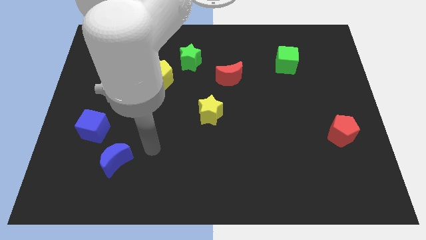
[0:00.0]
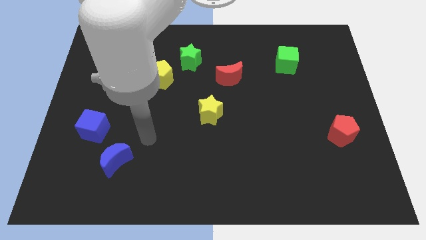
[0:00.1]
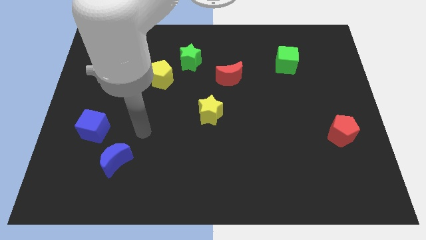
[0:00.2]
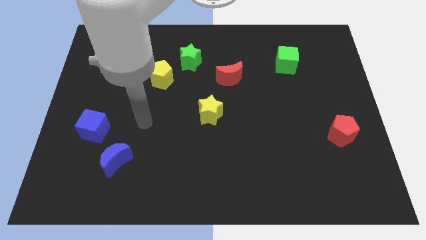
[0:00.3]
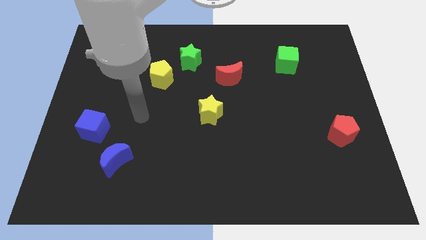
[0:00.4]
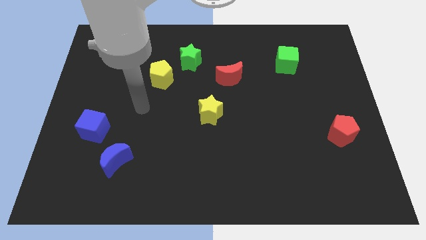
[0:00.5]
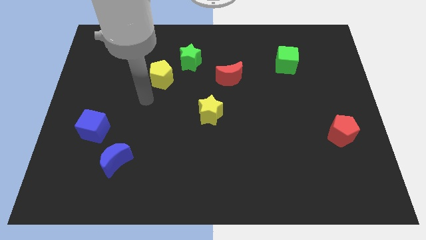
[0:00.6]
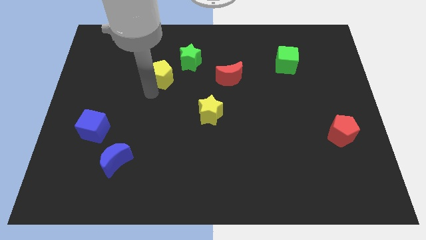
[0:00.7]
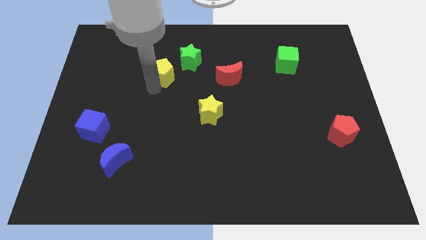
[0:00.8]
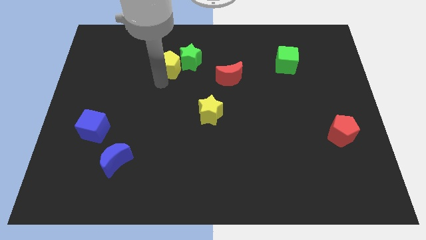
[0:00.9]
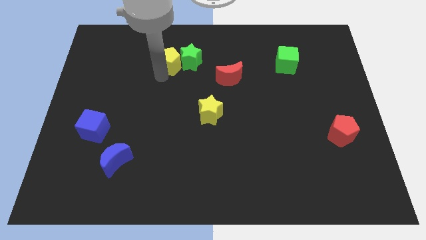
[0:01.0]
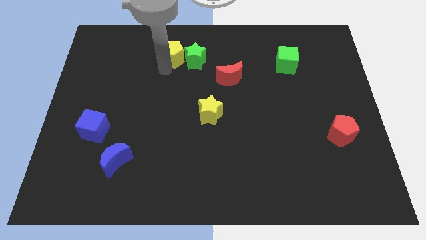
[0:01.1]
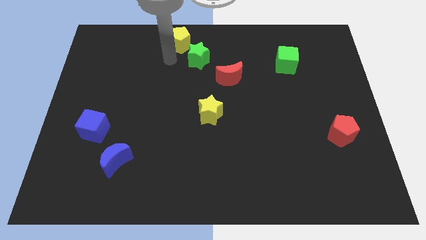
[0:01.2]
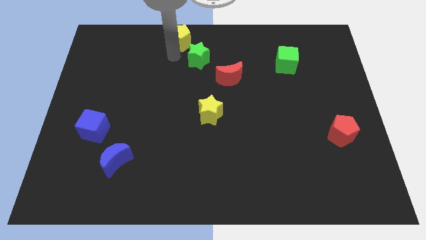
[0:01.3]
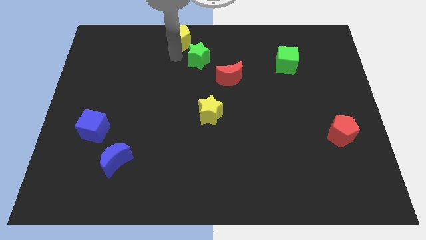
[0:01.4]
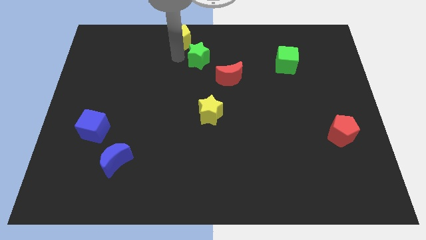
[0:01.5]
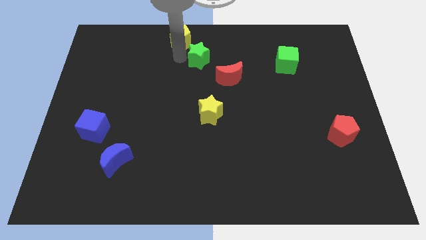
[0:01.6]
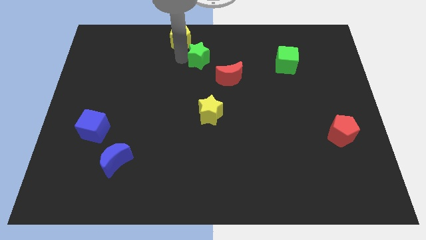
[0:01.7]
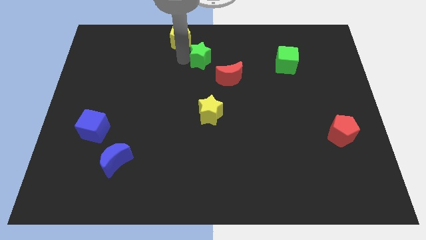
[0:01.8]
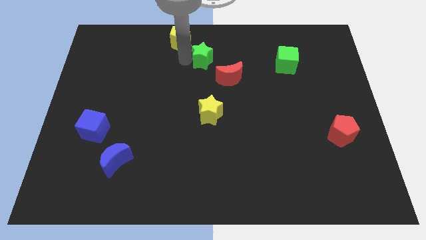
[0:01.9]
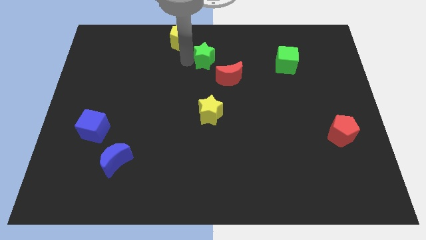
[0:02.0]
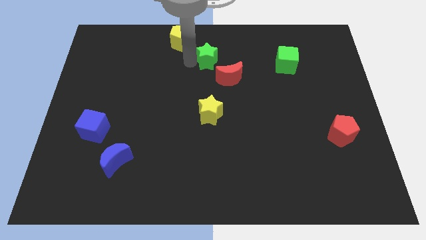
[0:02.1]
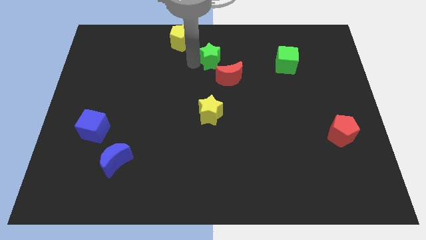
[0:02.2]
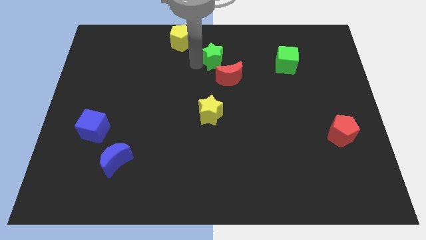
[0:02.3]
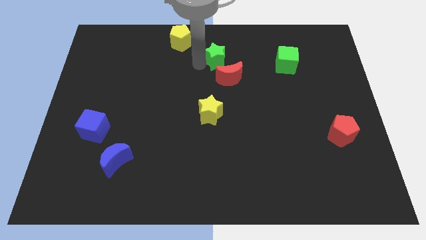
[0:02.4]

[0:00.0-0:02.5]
slide the green star right a little

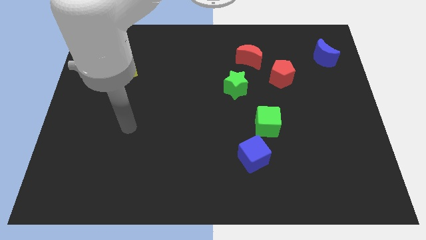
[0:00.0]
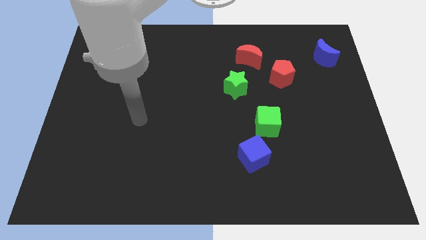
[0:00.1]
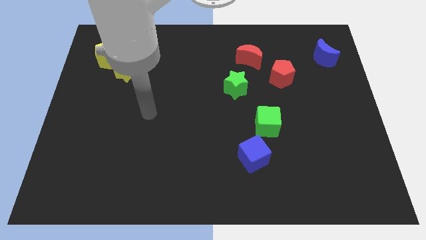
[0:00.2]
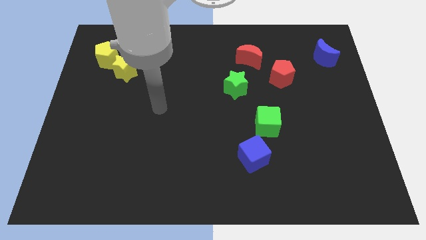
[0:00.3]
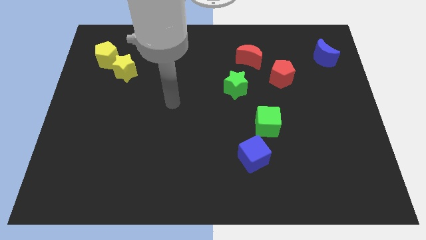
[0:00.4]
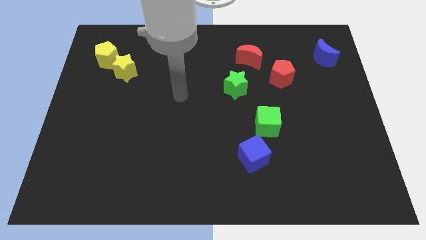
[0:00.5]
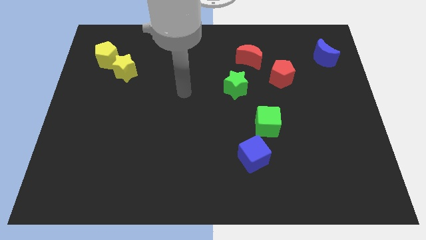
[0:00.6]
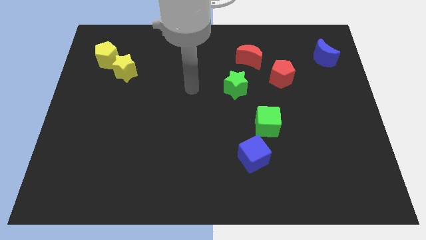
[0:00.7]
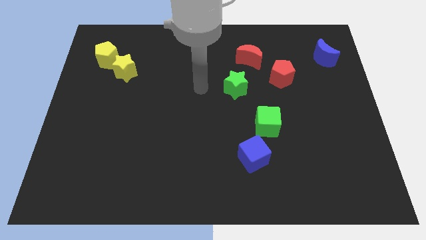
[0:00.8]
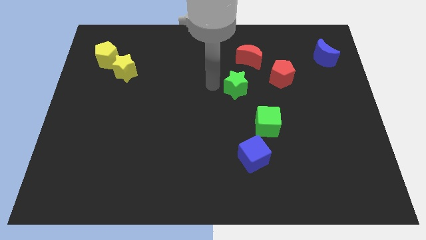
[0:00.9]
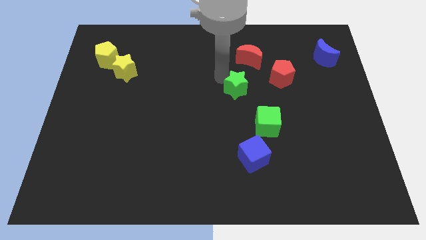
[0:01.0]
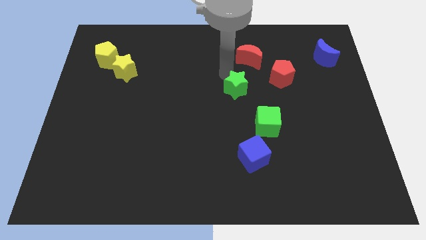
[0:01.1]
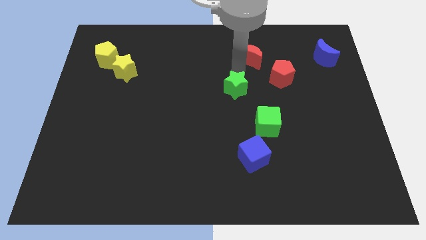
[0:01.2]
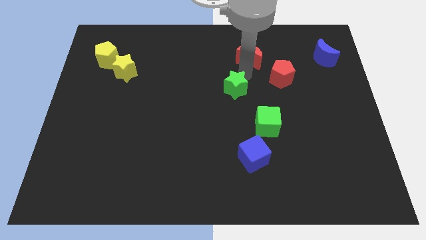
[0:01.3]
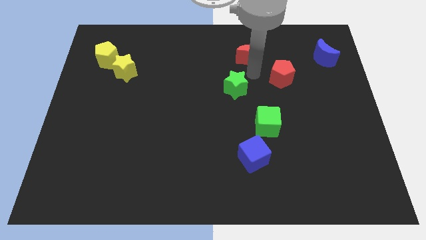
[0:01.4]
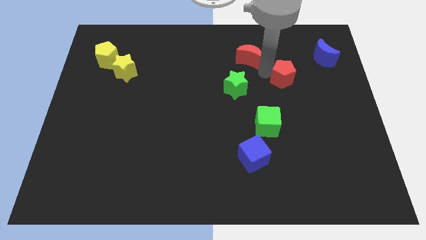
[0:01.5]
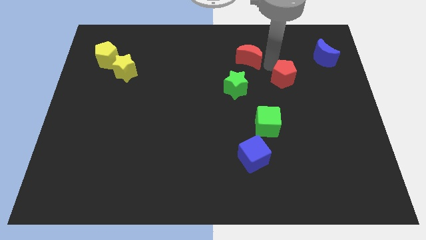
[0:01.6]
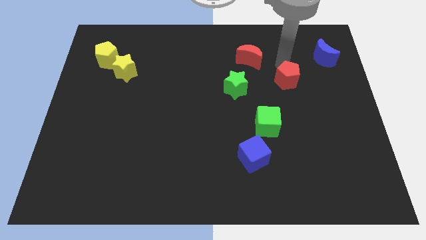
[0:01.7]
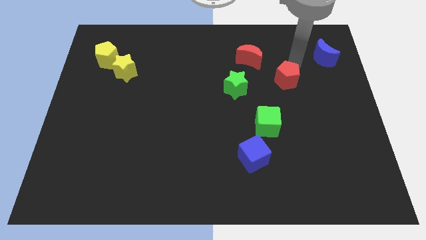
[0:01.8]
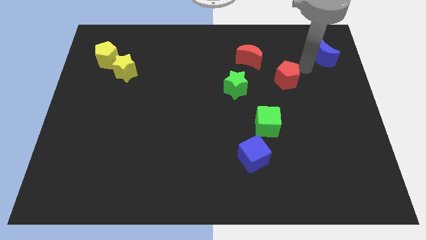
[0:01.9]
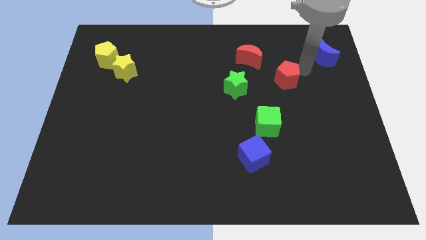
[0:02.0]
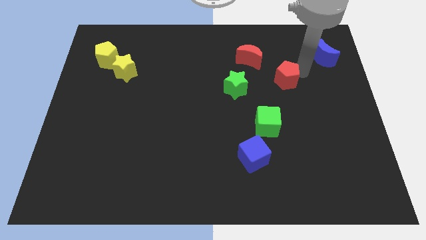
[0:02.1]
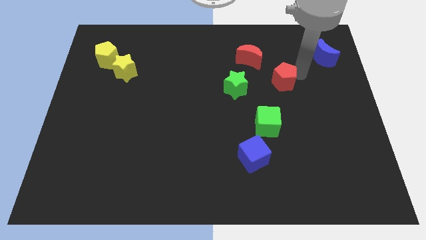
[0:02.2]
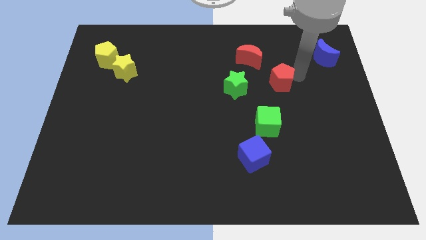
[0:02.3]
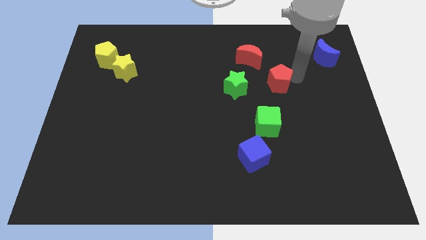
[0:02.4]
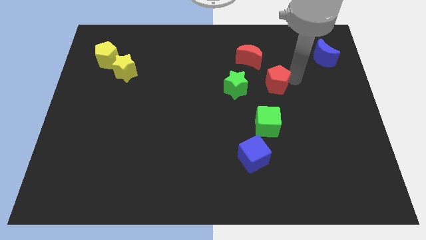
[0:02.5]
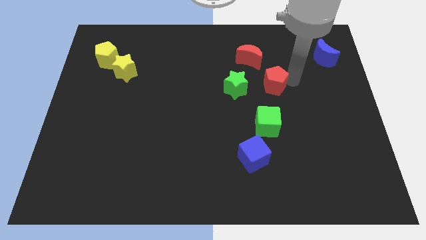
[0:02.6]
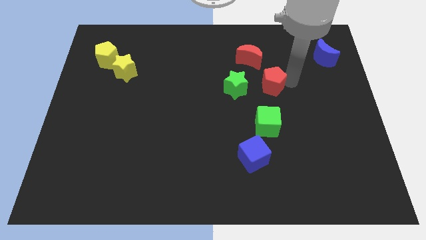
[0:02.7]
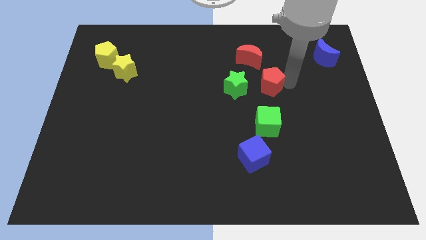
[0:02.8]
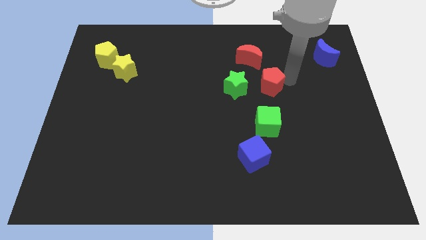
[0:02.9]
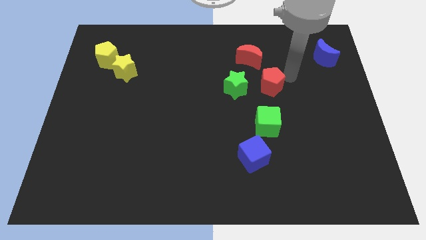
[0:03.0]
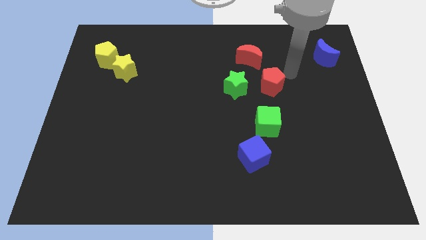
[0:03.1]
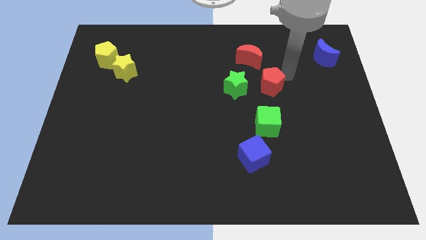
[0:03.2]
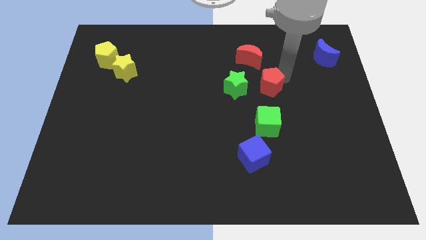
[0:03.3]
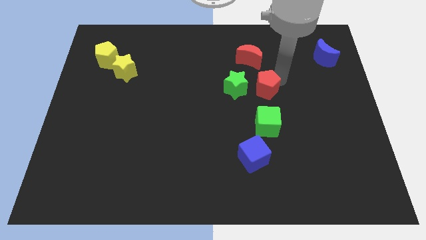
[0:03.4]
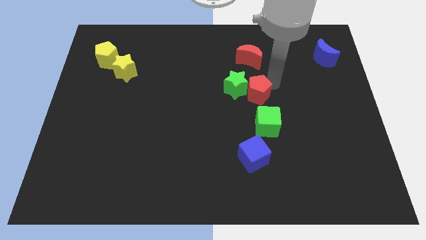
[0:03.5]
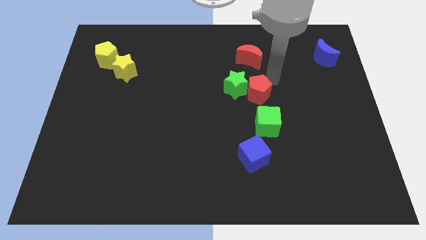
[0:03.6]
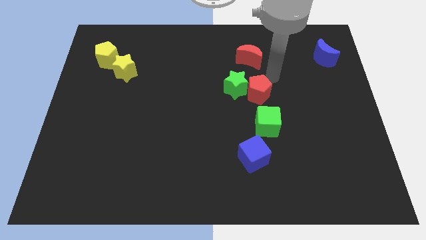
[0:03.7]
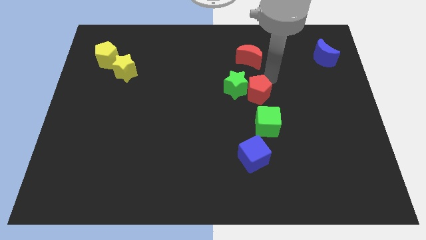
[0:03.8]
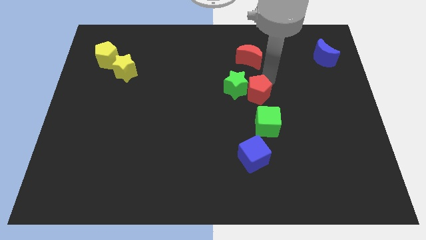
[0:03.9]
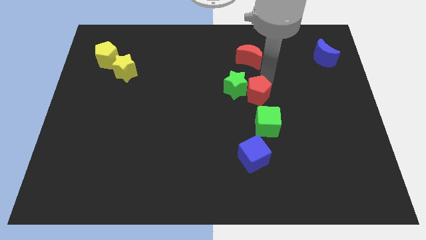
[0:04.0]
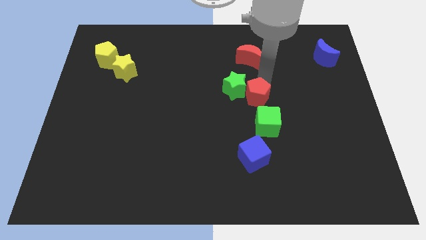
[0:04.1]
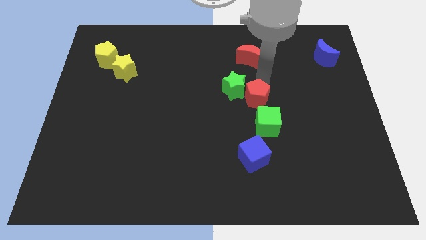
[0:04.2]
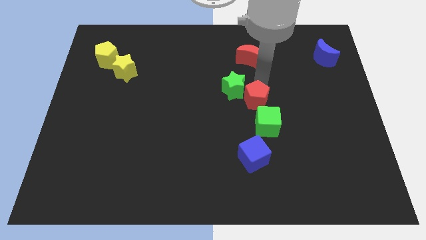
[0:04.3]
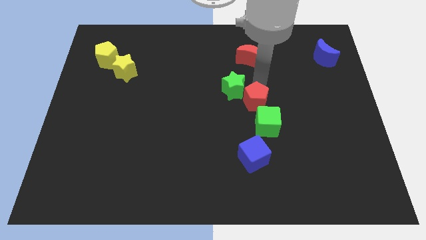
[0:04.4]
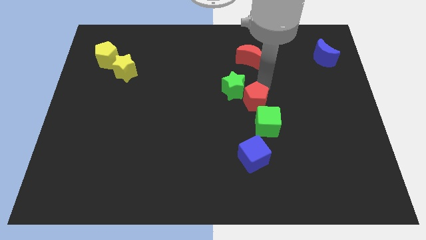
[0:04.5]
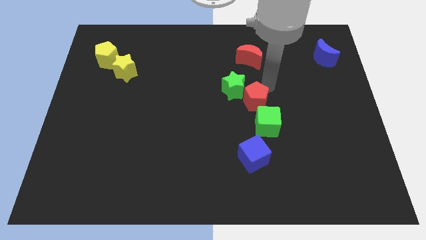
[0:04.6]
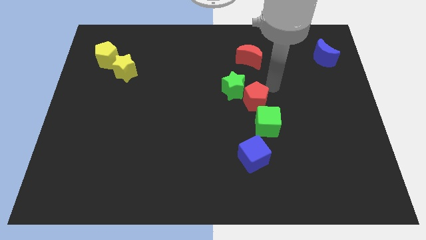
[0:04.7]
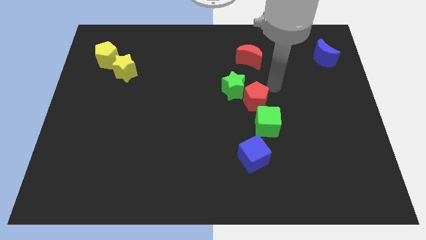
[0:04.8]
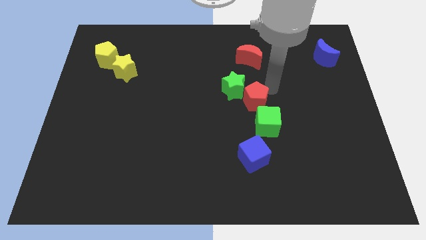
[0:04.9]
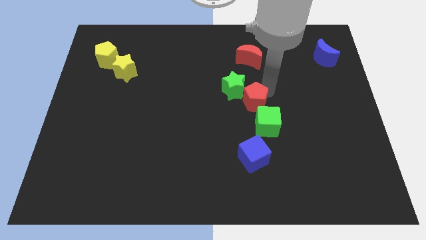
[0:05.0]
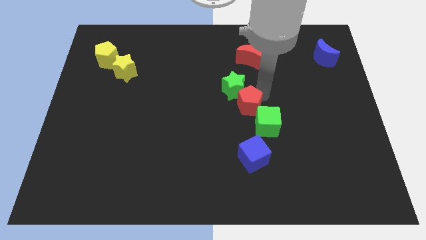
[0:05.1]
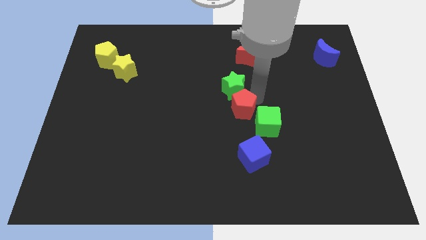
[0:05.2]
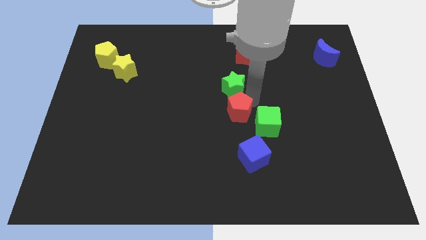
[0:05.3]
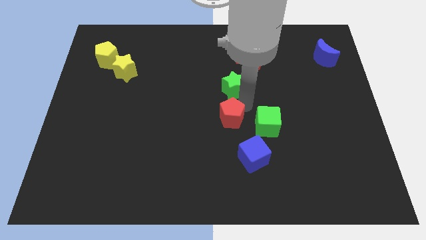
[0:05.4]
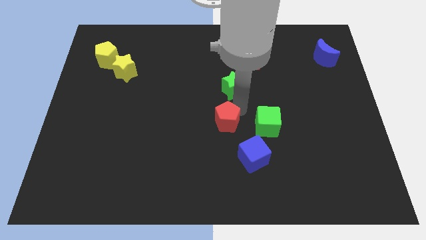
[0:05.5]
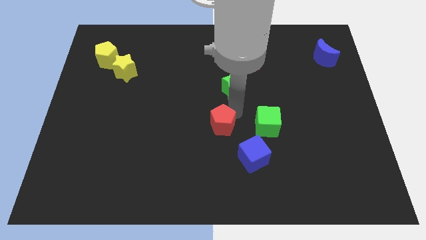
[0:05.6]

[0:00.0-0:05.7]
push the red pentagon downwards and then to the left
